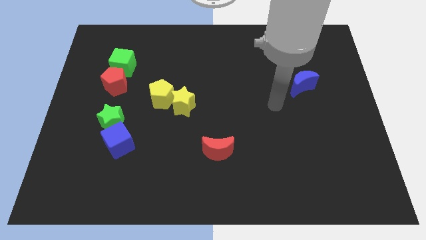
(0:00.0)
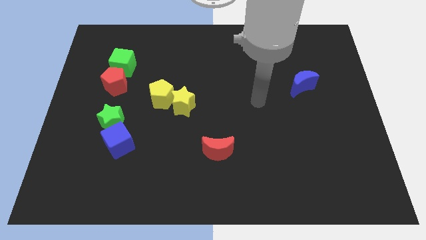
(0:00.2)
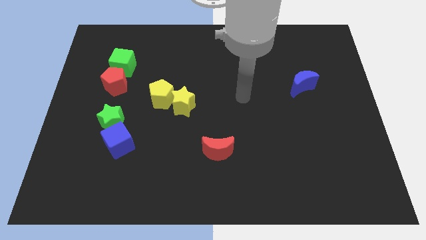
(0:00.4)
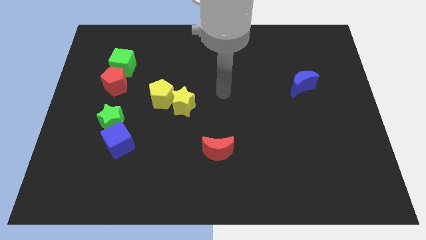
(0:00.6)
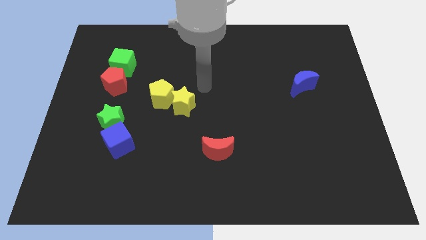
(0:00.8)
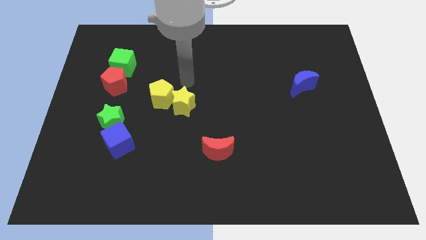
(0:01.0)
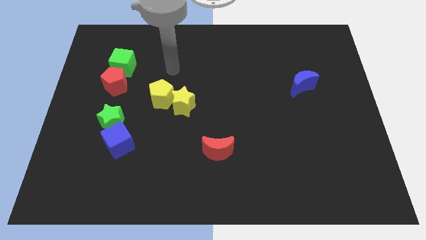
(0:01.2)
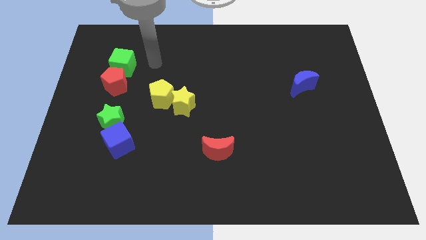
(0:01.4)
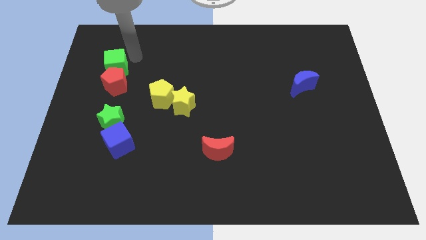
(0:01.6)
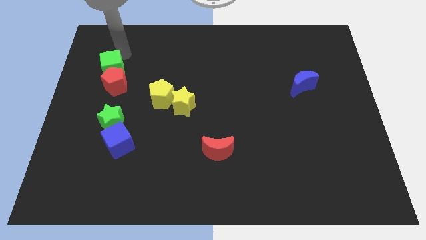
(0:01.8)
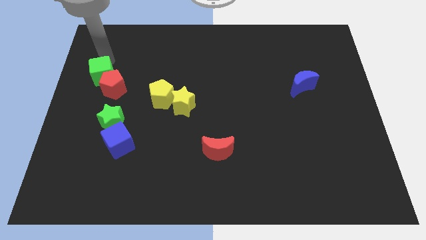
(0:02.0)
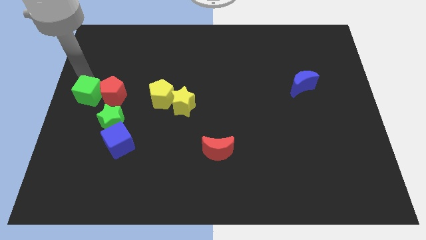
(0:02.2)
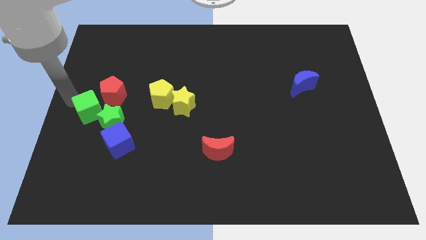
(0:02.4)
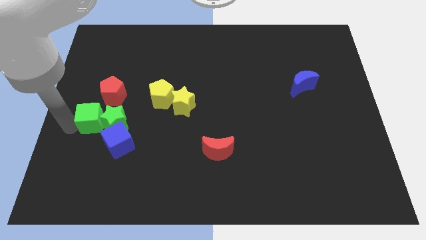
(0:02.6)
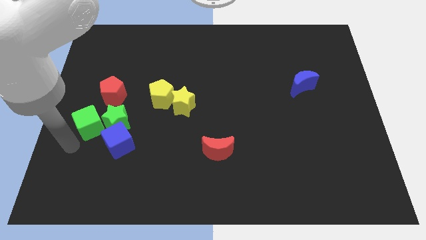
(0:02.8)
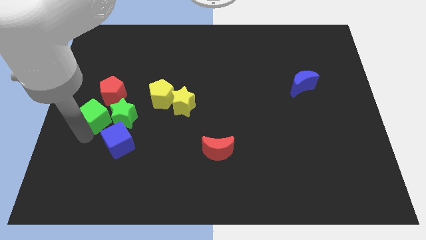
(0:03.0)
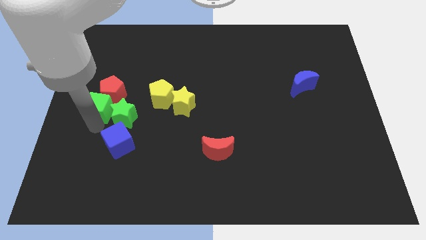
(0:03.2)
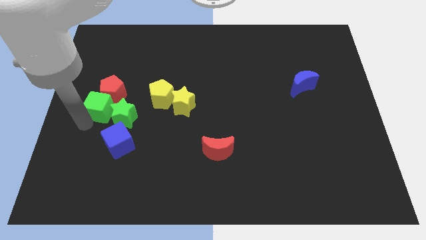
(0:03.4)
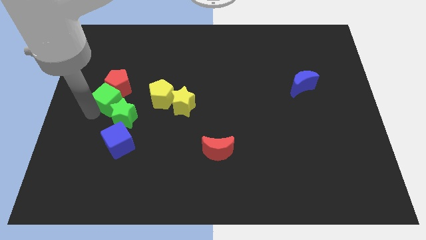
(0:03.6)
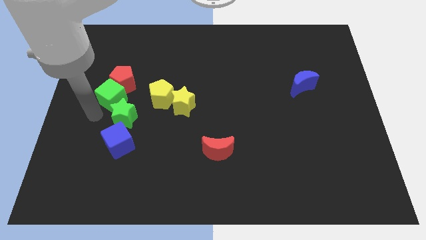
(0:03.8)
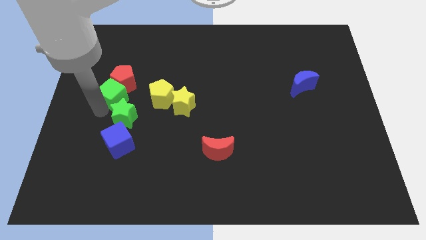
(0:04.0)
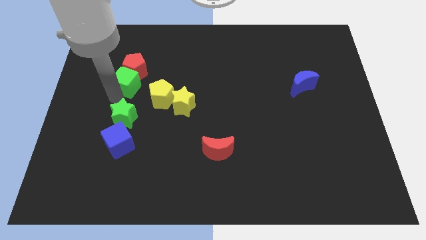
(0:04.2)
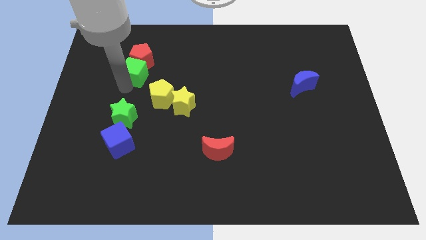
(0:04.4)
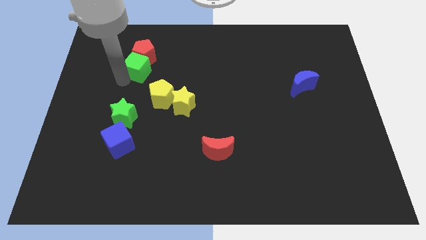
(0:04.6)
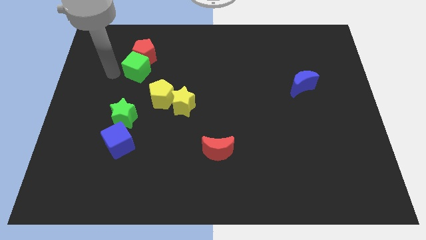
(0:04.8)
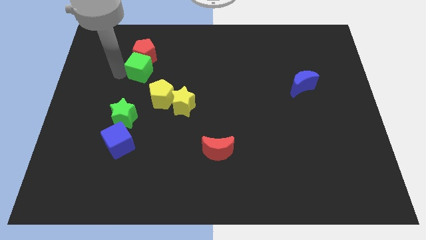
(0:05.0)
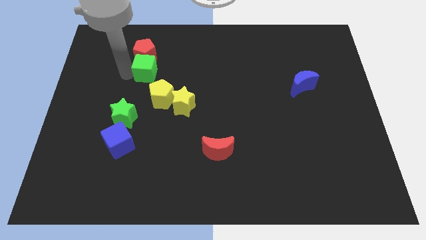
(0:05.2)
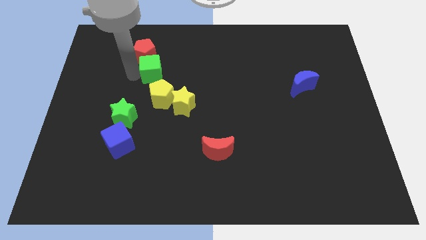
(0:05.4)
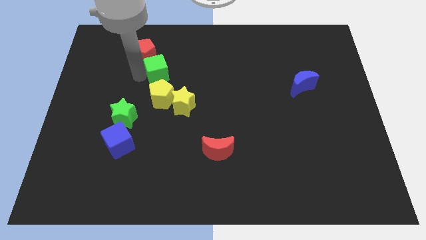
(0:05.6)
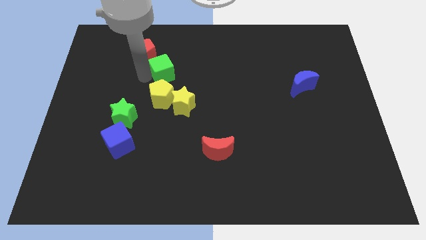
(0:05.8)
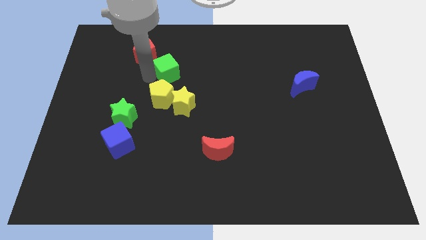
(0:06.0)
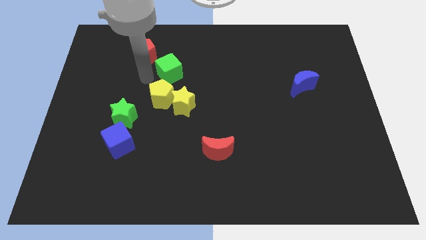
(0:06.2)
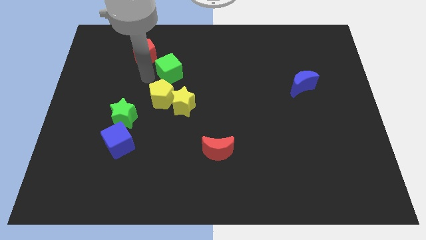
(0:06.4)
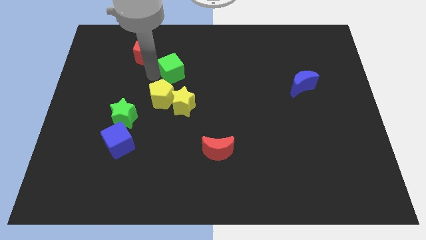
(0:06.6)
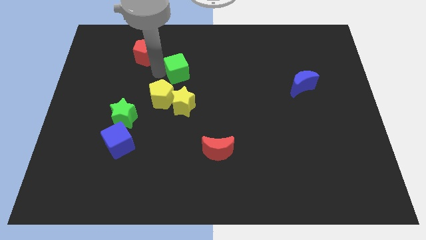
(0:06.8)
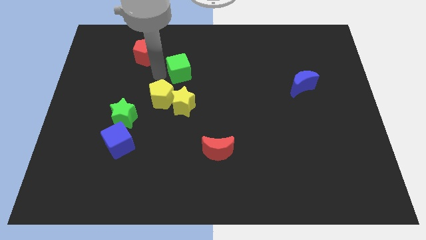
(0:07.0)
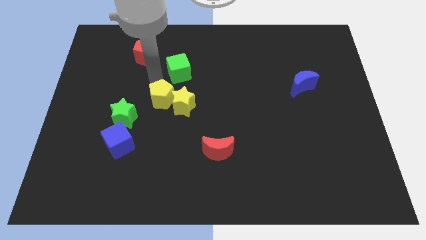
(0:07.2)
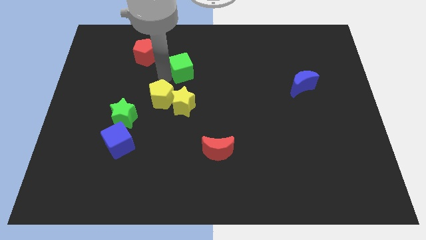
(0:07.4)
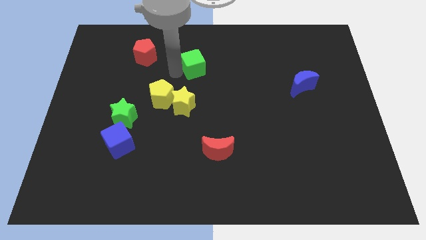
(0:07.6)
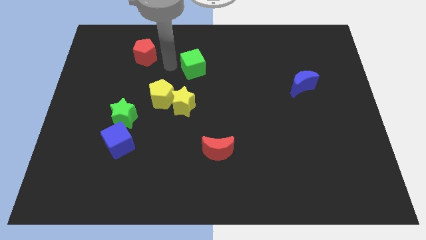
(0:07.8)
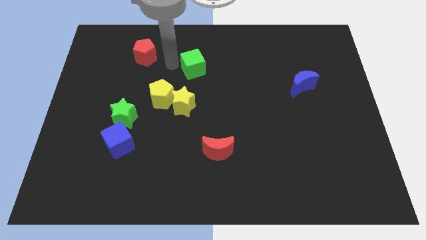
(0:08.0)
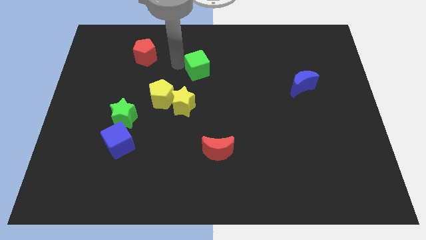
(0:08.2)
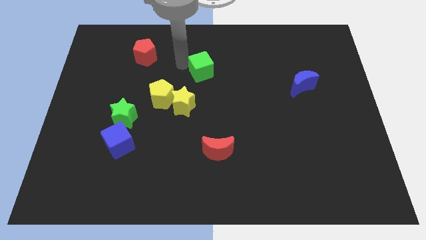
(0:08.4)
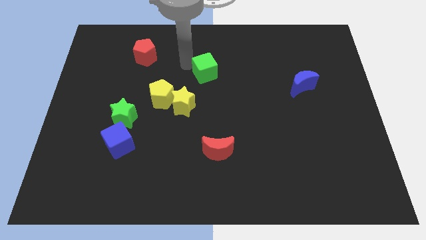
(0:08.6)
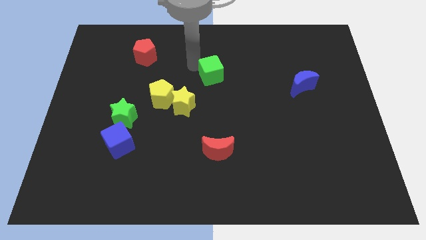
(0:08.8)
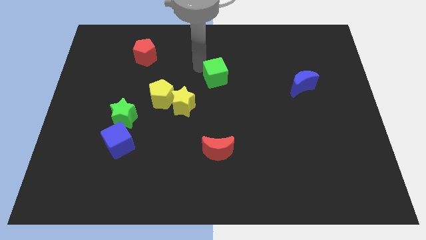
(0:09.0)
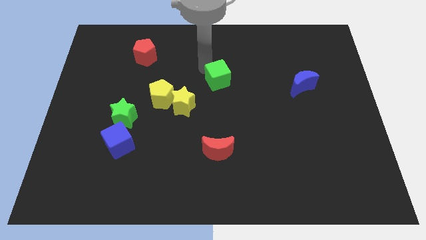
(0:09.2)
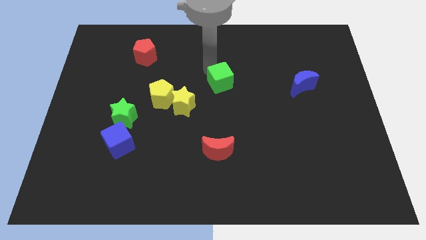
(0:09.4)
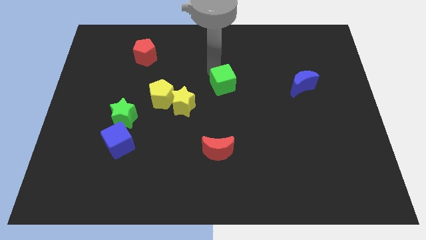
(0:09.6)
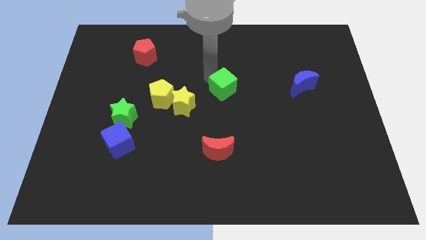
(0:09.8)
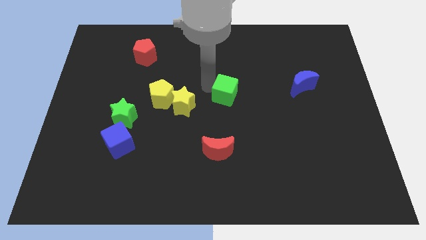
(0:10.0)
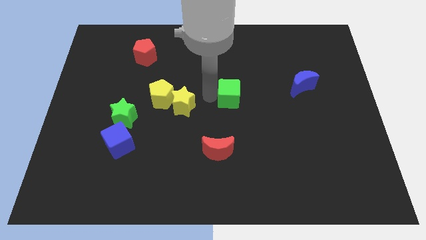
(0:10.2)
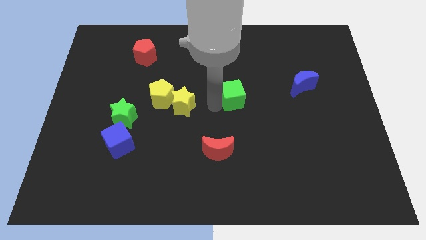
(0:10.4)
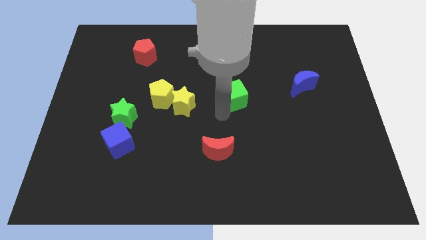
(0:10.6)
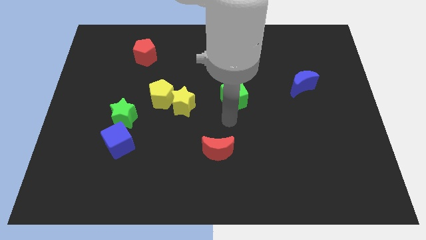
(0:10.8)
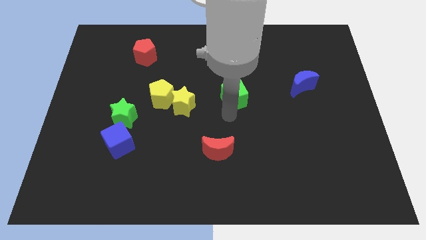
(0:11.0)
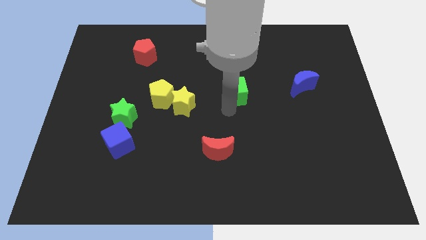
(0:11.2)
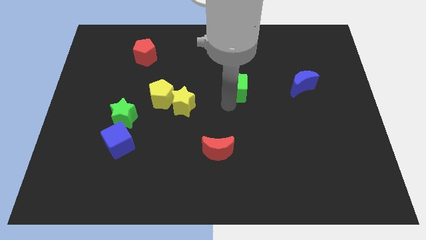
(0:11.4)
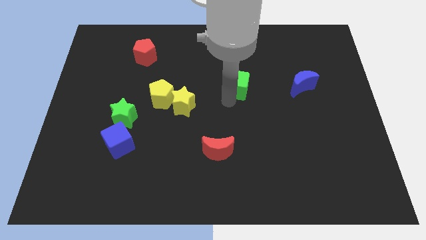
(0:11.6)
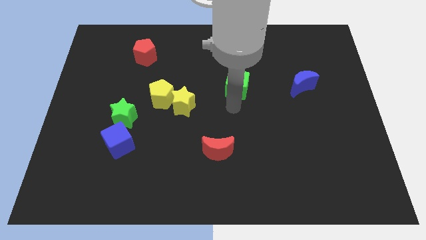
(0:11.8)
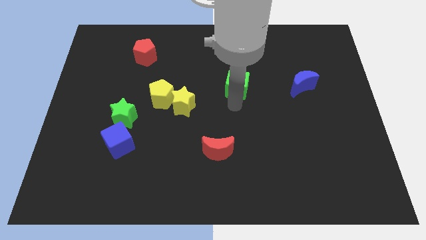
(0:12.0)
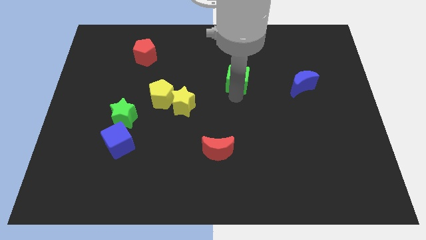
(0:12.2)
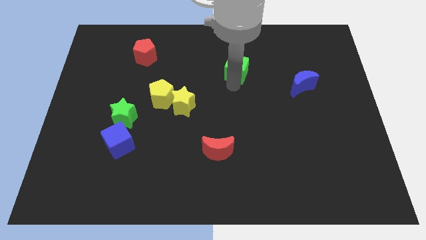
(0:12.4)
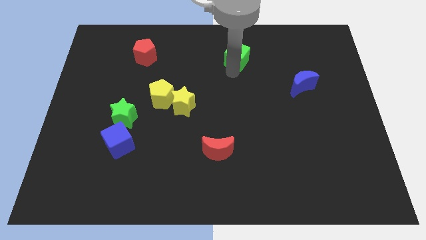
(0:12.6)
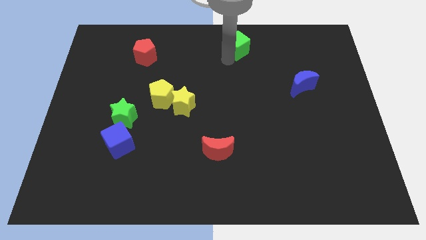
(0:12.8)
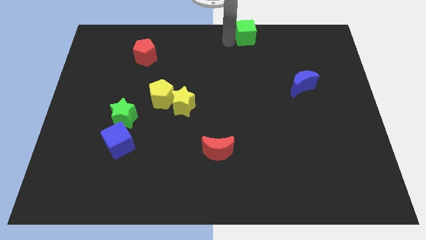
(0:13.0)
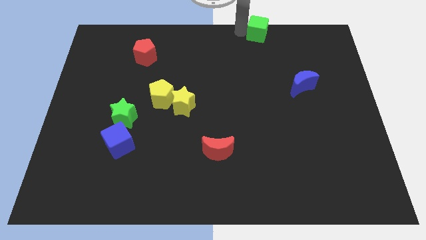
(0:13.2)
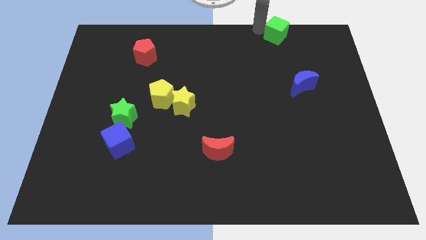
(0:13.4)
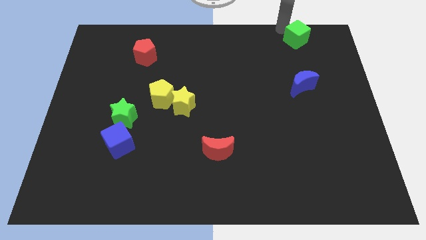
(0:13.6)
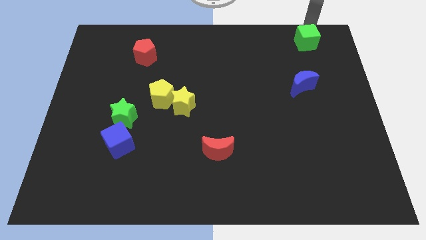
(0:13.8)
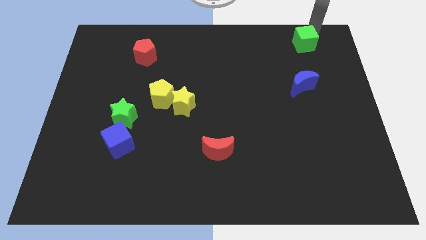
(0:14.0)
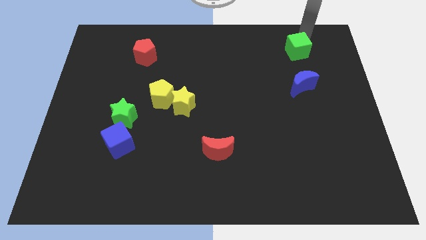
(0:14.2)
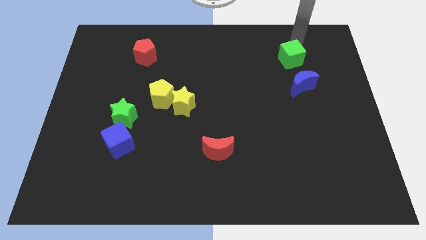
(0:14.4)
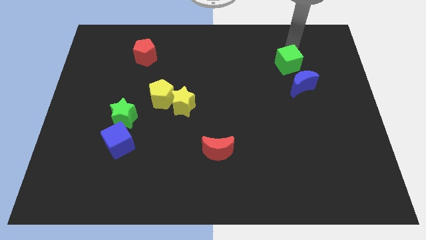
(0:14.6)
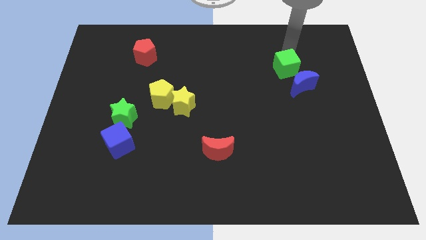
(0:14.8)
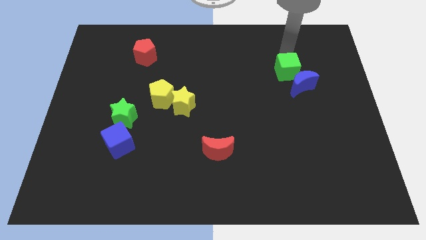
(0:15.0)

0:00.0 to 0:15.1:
push the green cube next to the blue moon
